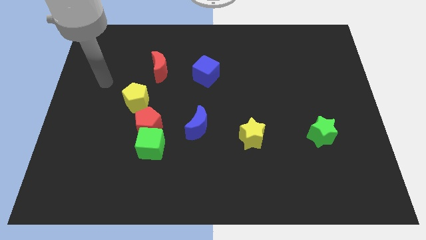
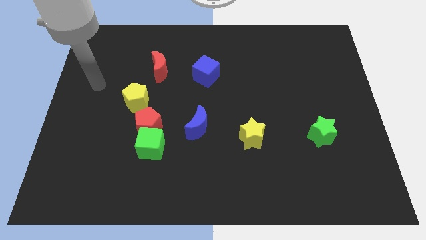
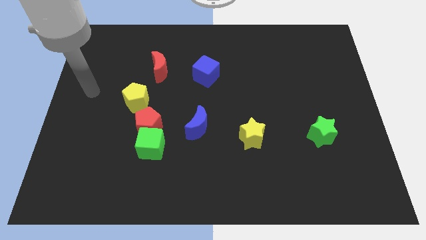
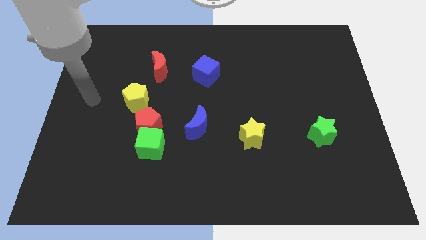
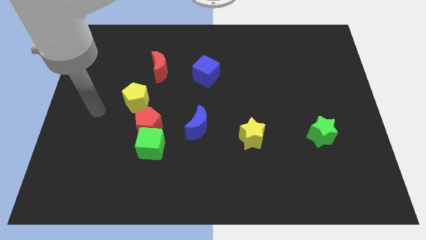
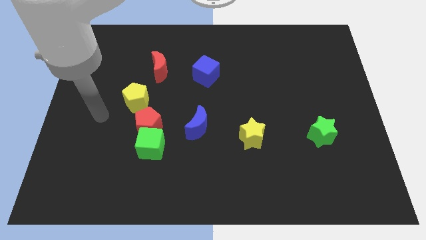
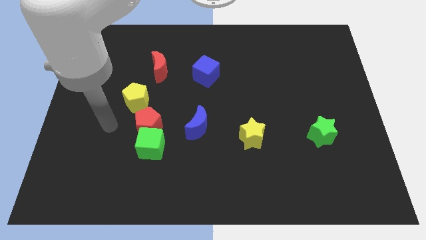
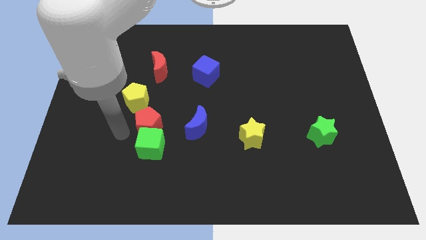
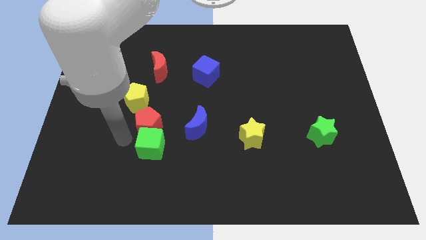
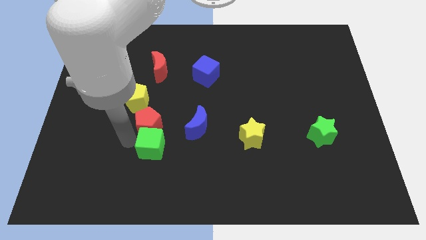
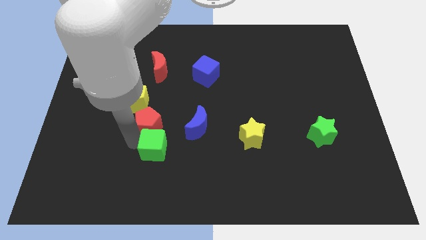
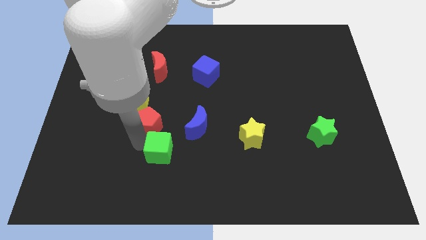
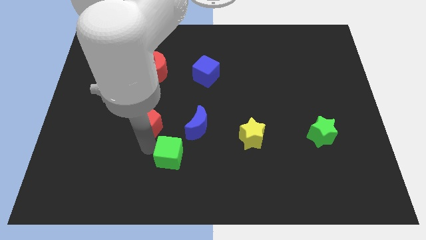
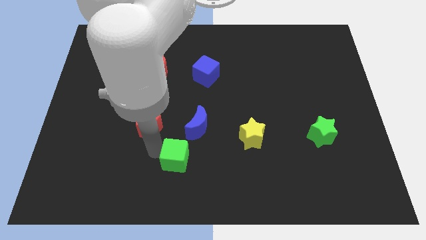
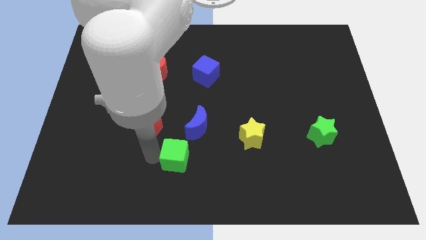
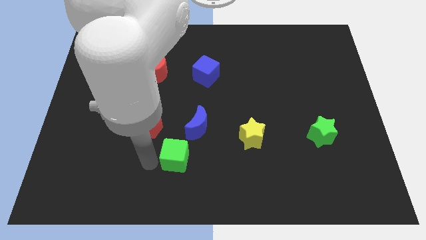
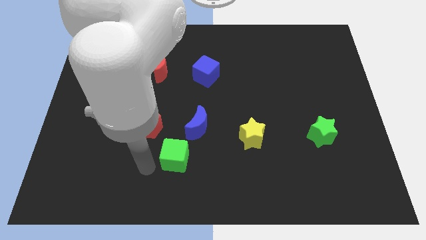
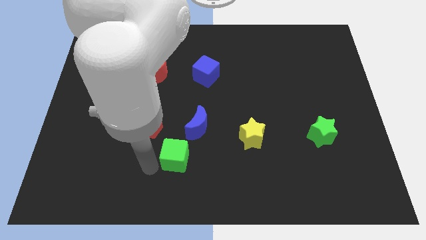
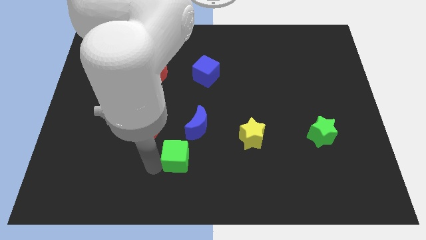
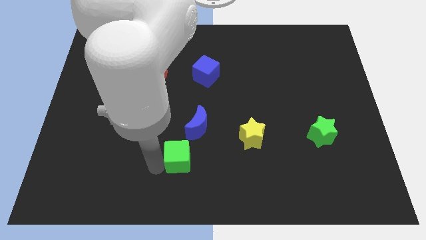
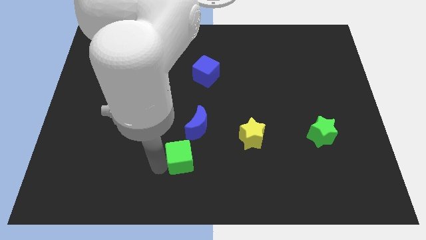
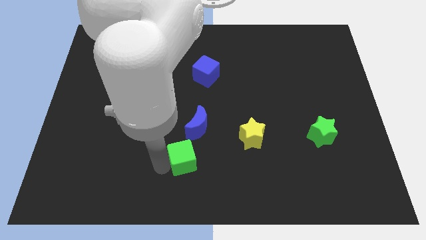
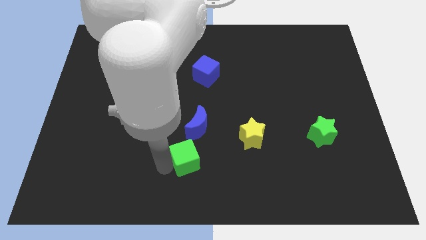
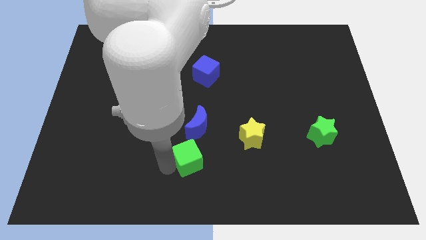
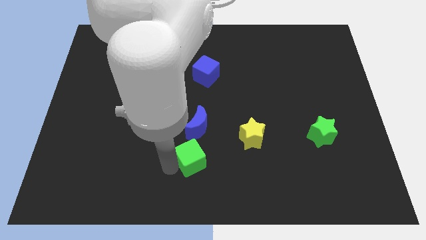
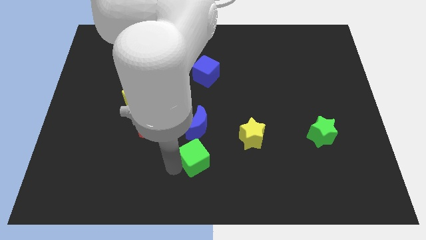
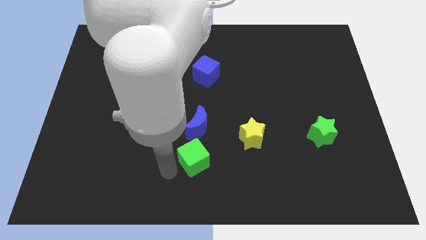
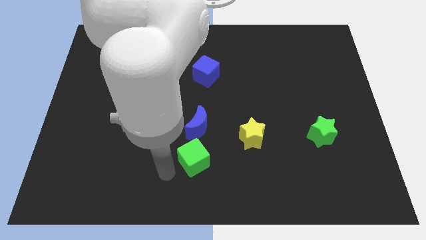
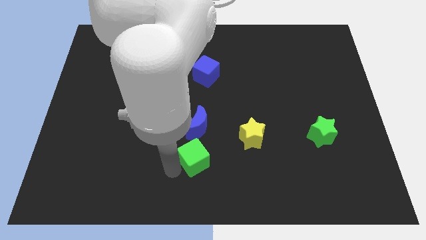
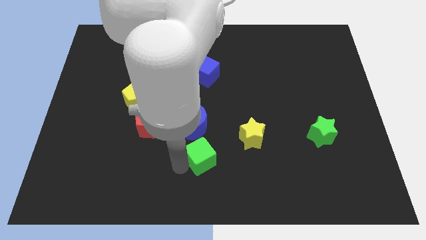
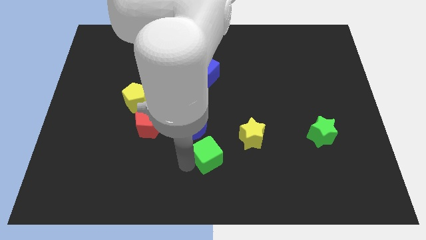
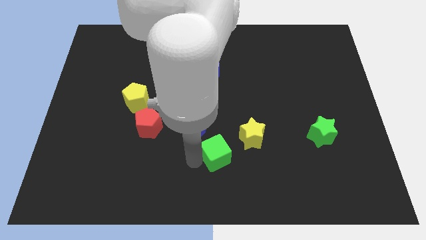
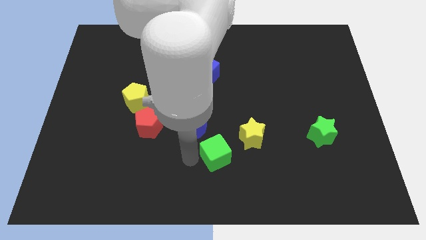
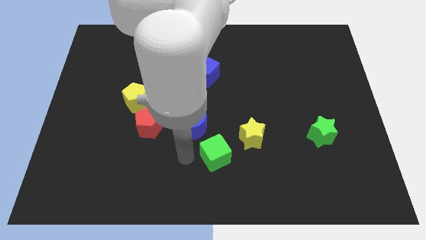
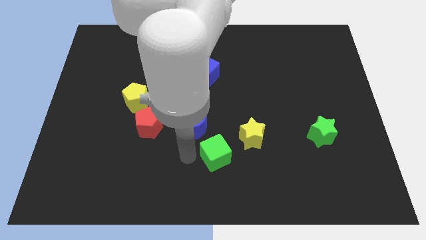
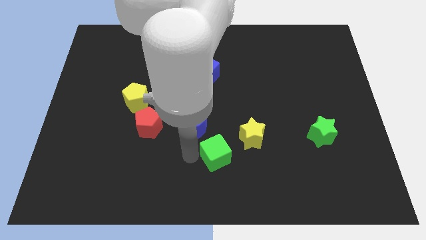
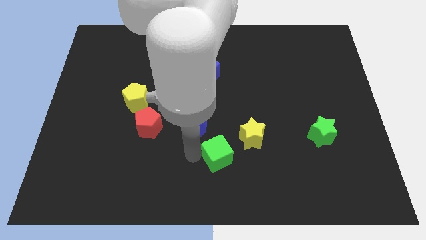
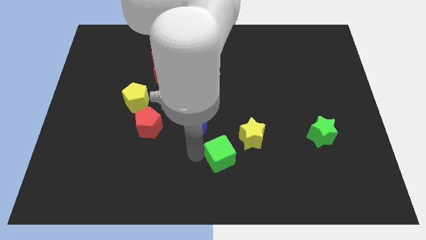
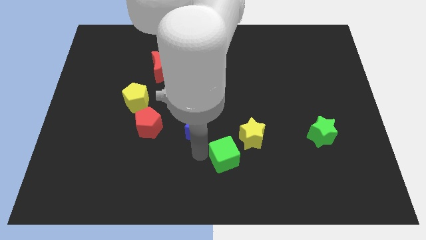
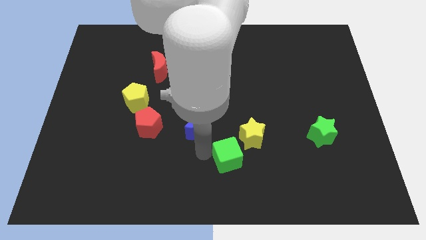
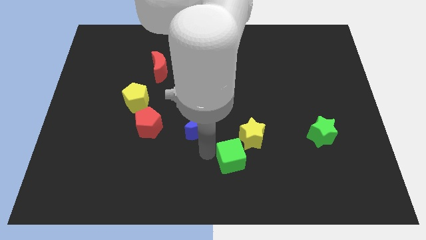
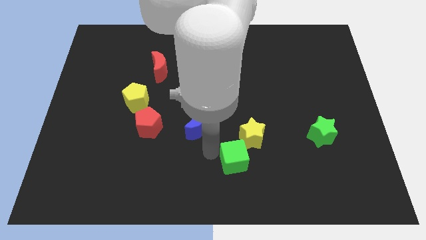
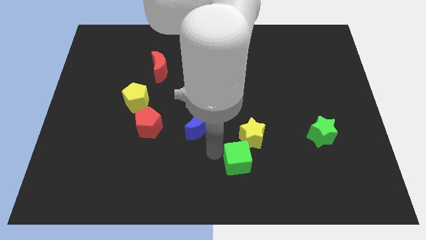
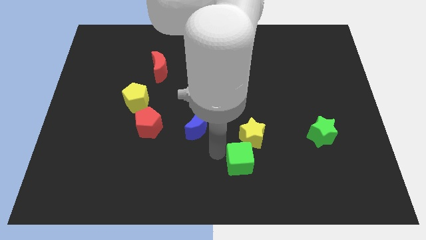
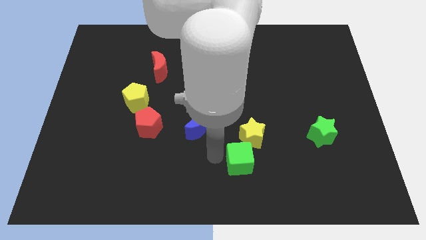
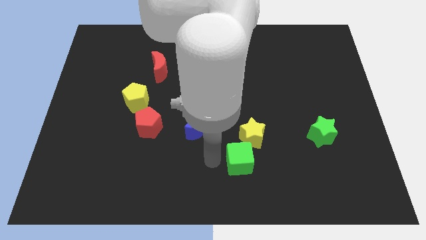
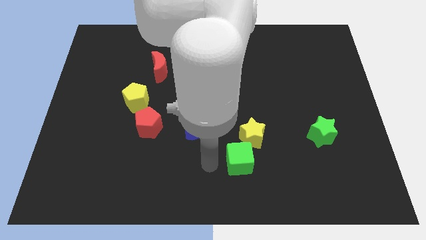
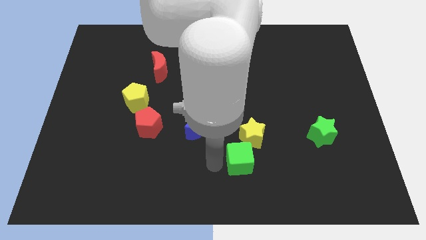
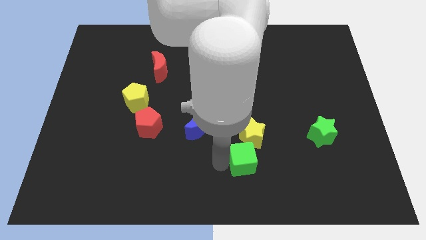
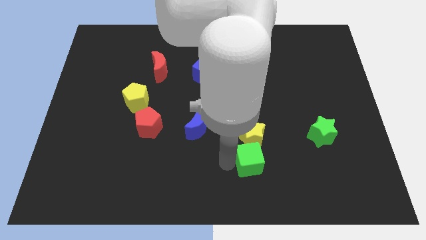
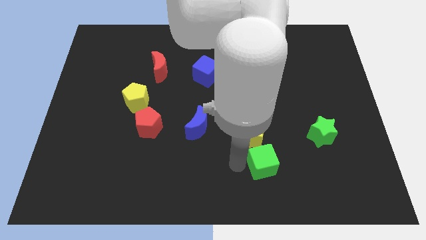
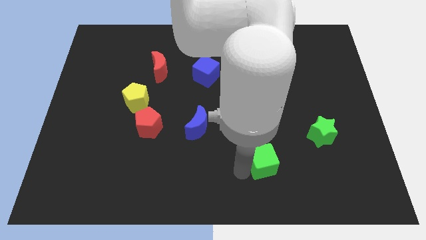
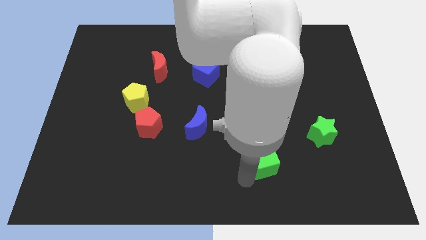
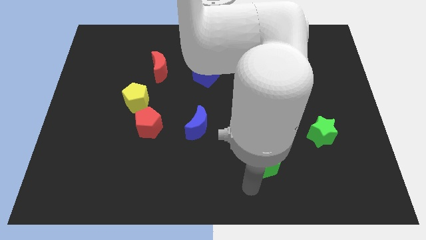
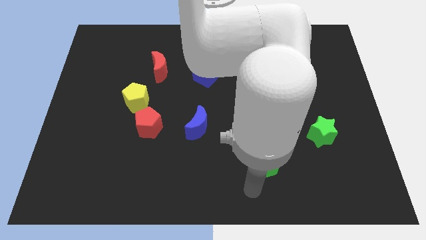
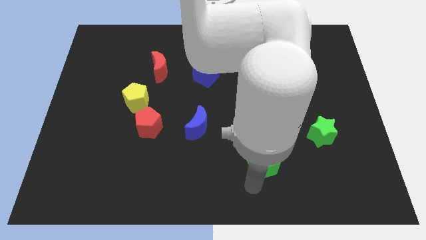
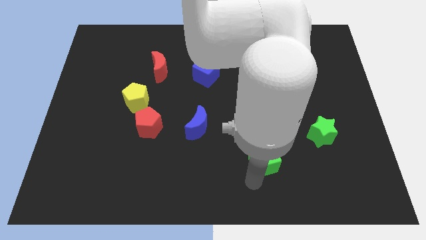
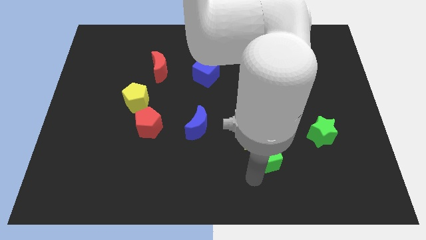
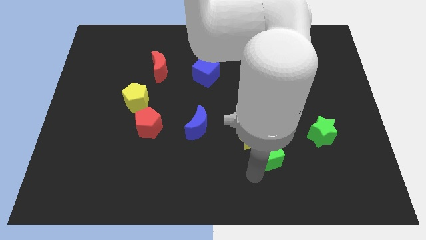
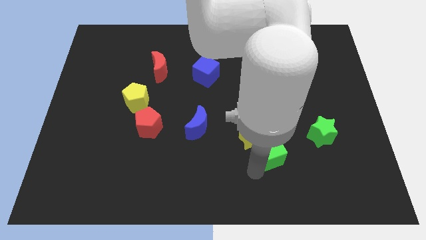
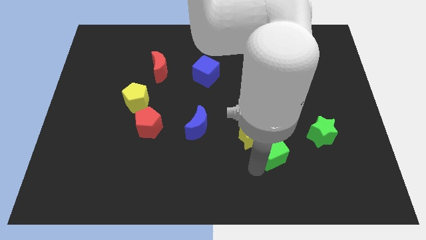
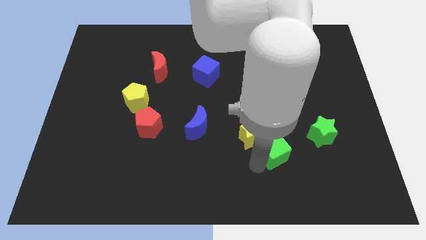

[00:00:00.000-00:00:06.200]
put the green cube left of the green star

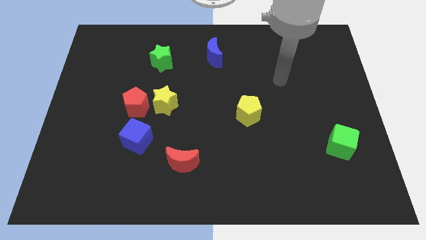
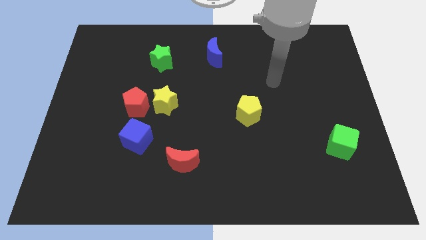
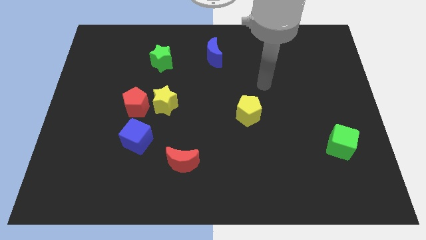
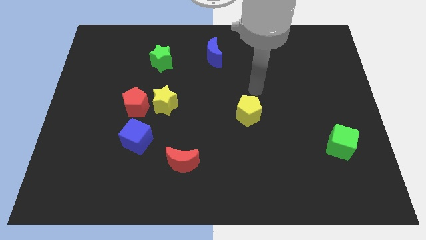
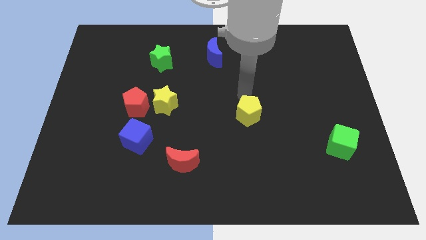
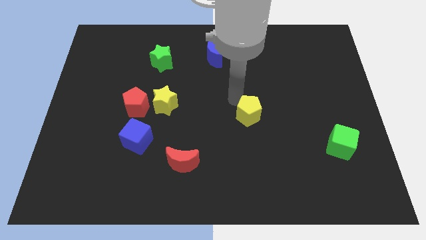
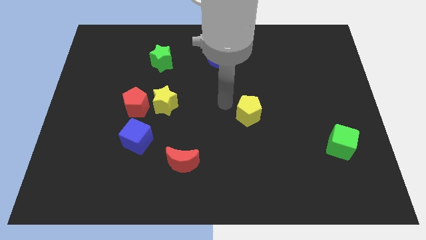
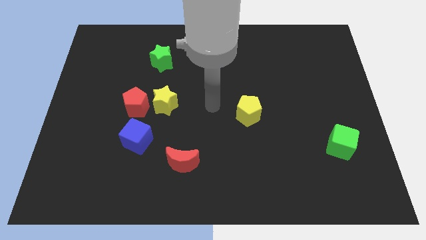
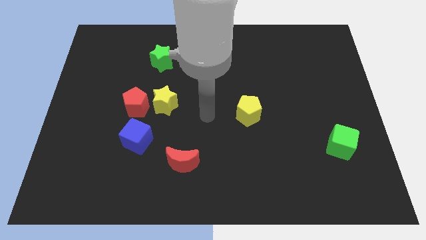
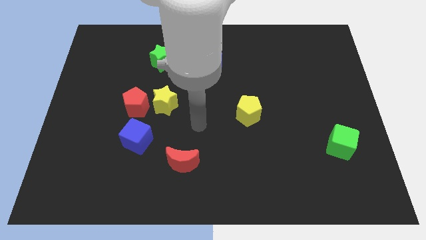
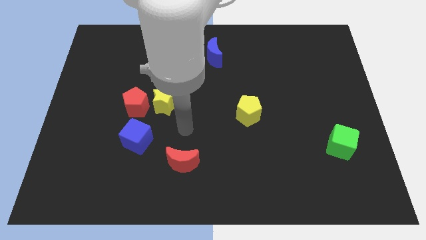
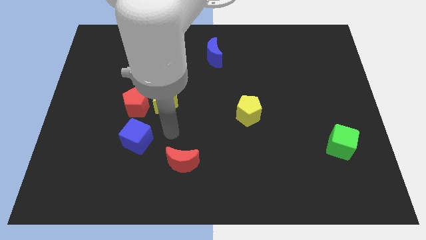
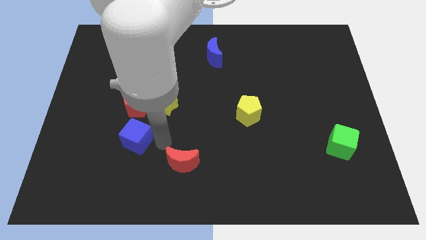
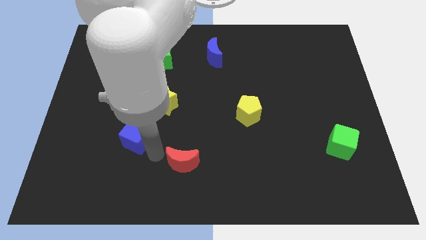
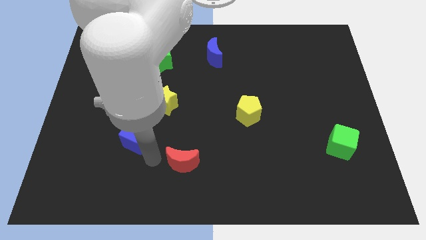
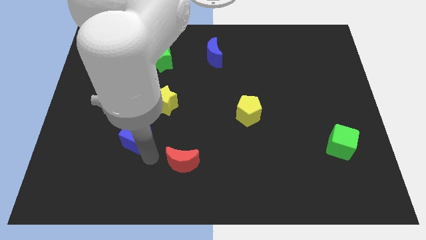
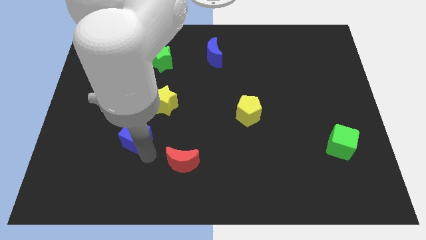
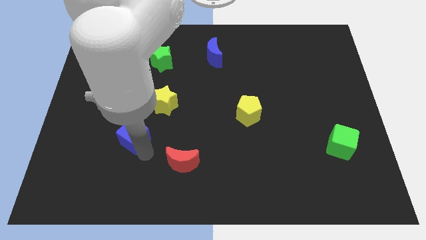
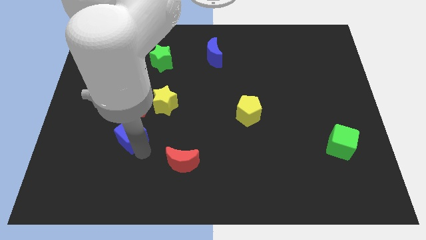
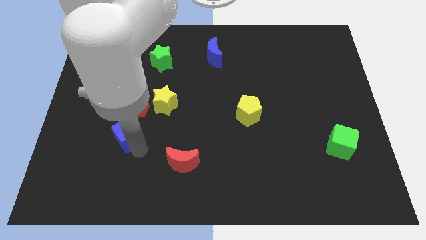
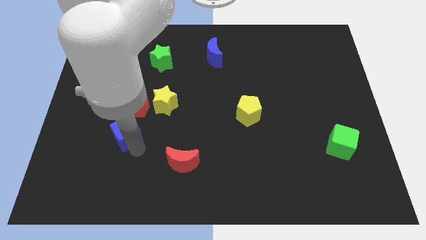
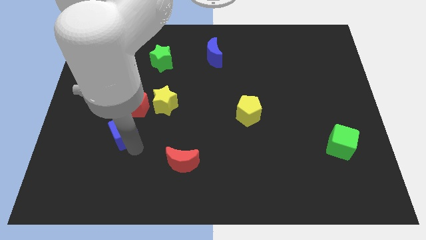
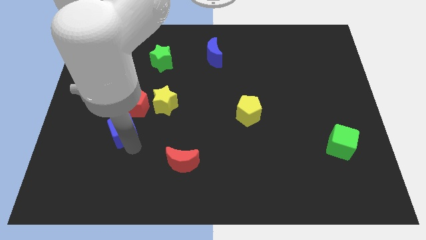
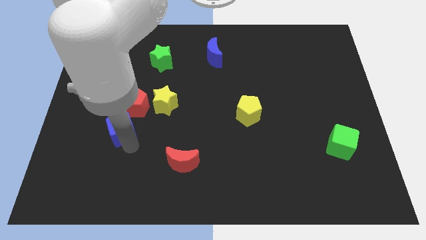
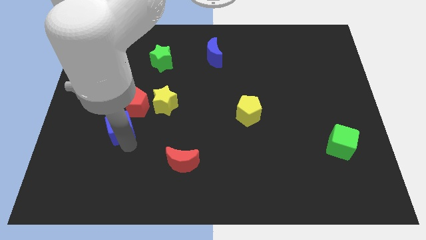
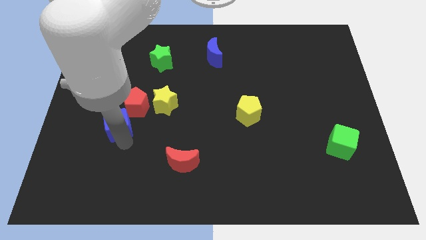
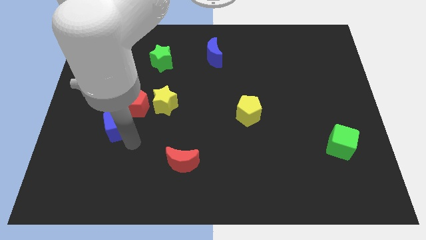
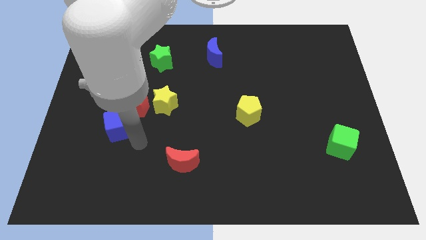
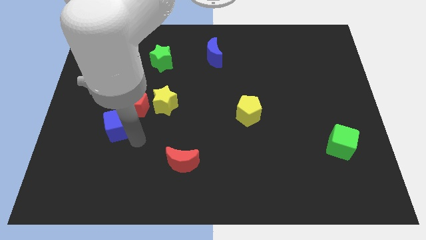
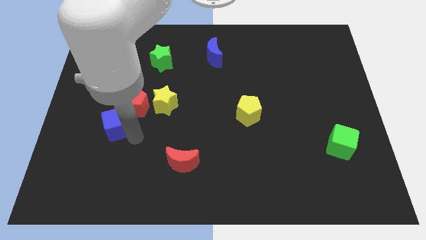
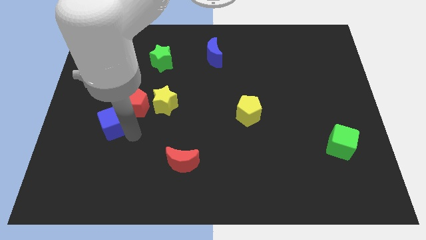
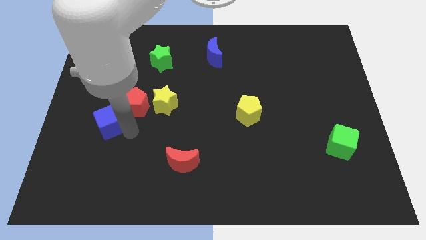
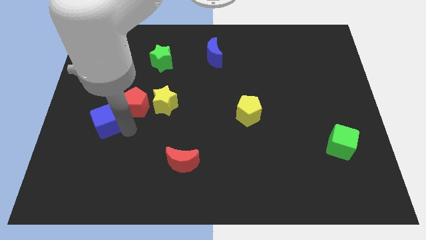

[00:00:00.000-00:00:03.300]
put the blue cube just left of the red pentagon
